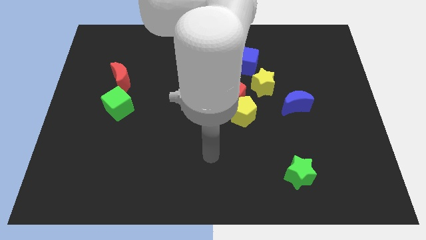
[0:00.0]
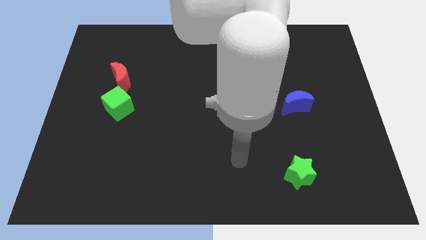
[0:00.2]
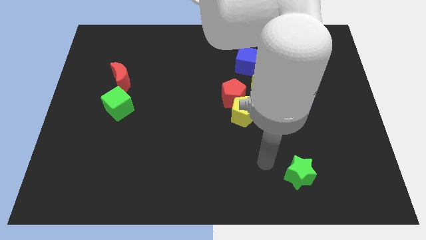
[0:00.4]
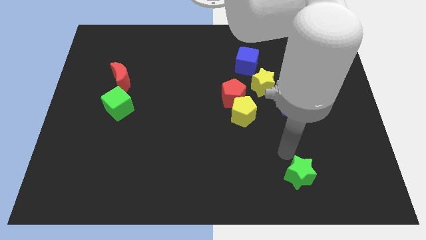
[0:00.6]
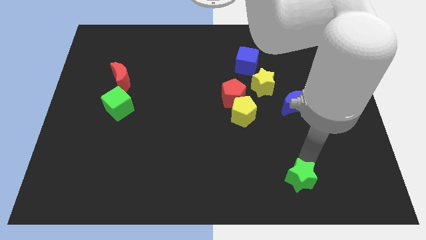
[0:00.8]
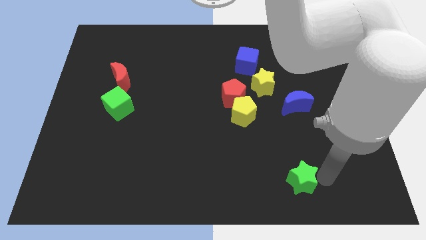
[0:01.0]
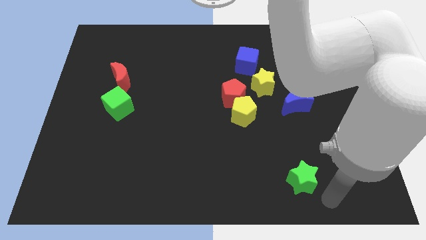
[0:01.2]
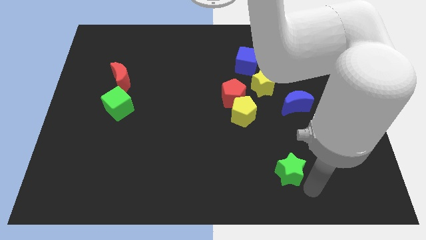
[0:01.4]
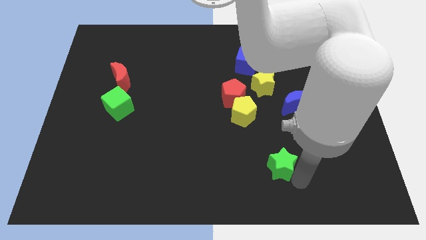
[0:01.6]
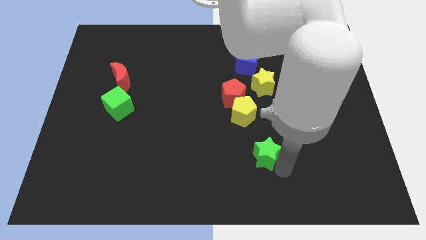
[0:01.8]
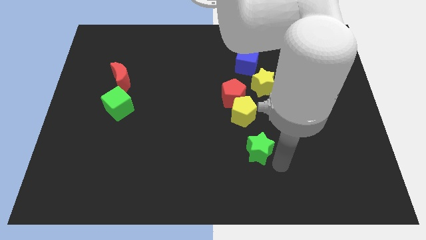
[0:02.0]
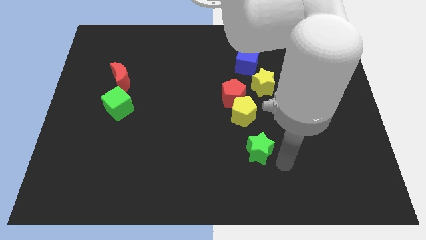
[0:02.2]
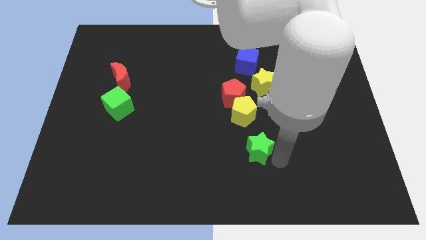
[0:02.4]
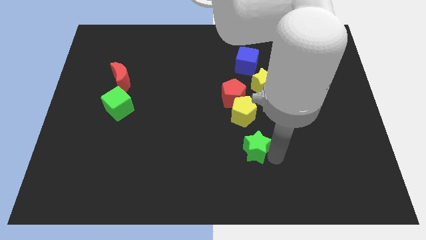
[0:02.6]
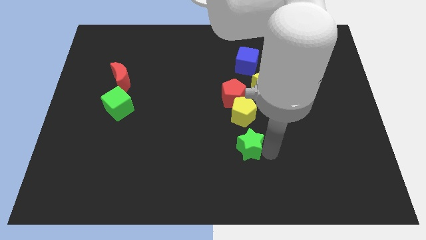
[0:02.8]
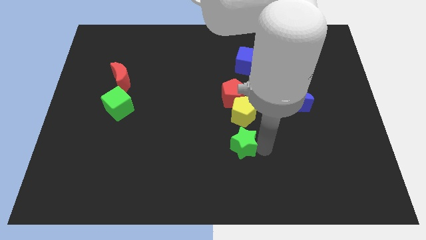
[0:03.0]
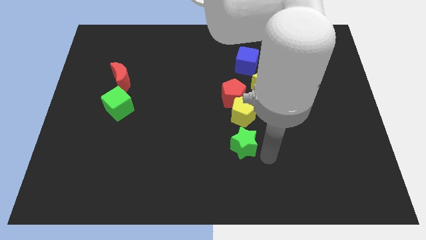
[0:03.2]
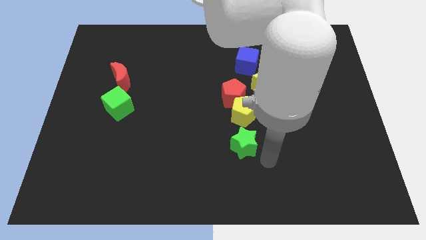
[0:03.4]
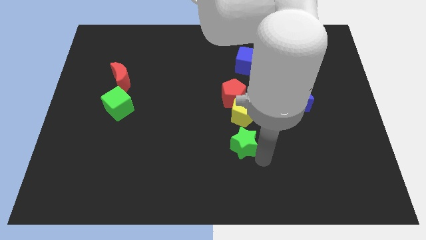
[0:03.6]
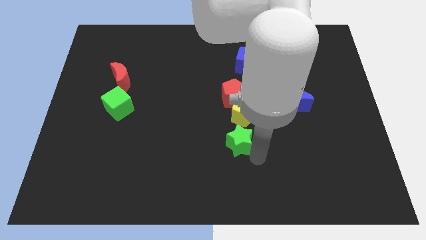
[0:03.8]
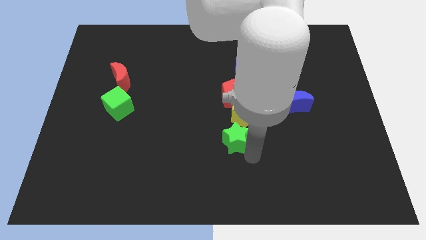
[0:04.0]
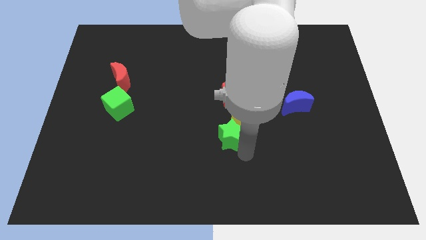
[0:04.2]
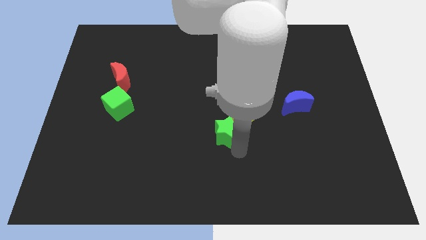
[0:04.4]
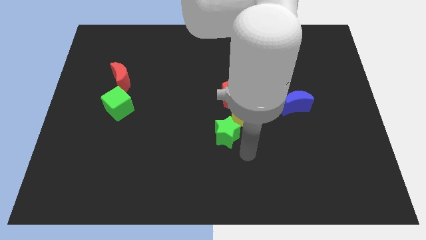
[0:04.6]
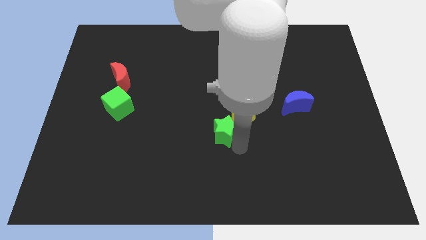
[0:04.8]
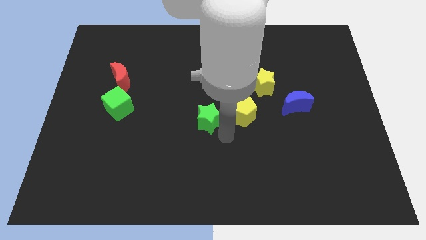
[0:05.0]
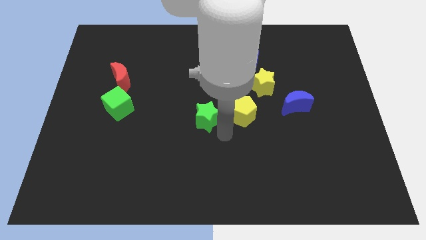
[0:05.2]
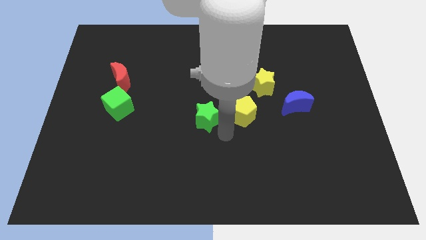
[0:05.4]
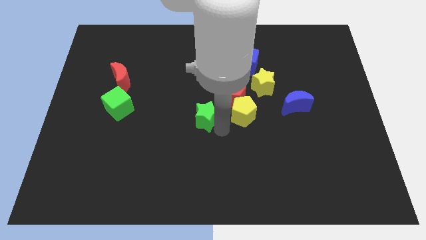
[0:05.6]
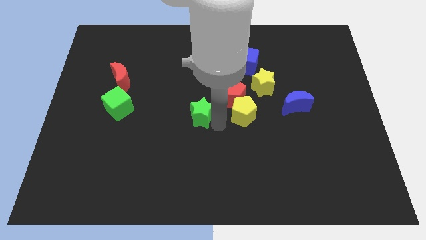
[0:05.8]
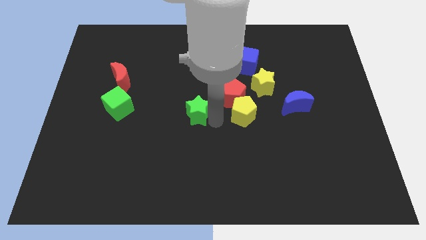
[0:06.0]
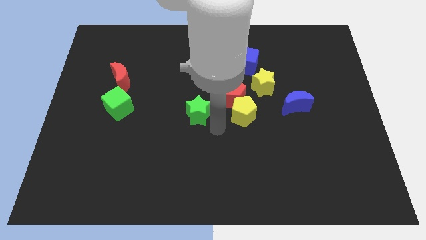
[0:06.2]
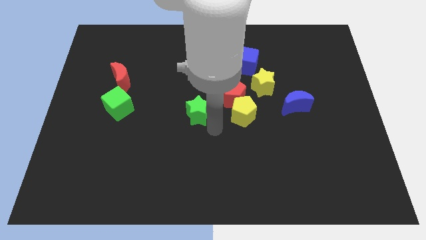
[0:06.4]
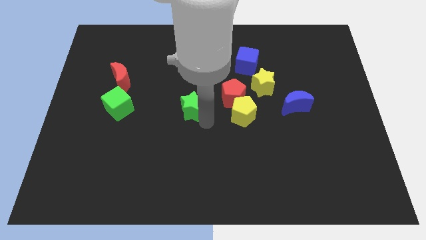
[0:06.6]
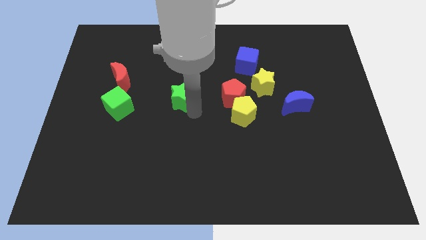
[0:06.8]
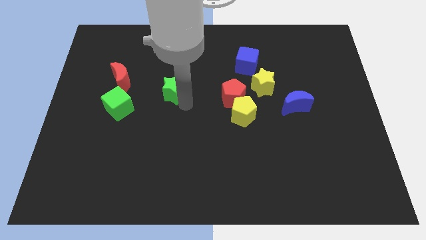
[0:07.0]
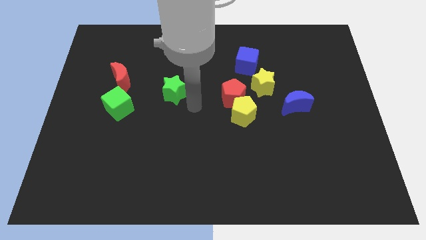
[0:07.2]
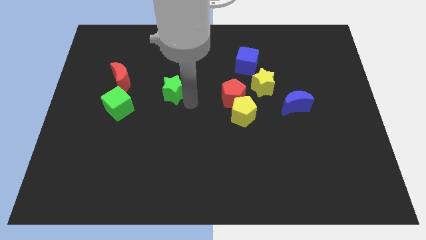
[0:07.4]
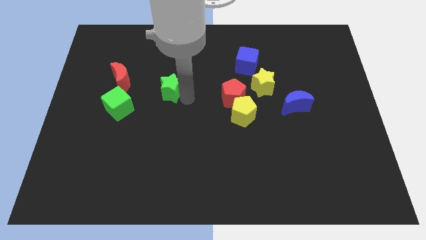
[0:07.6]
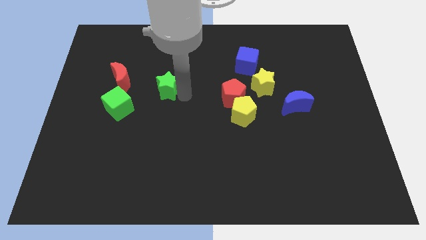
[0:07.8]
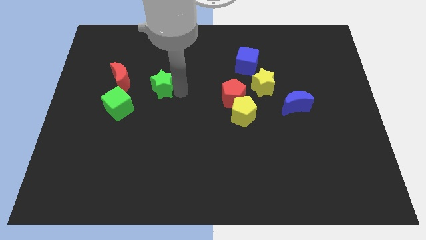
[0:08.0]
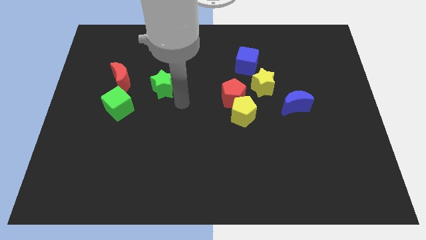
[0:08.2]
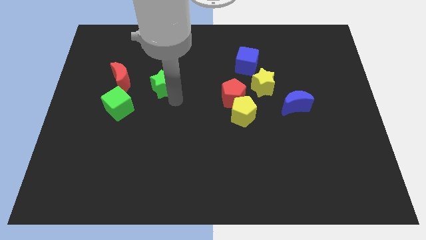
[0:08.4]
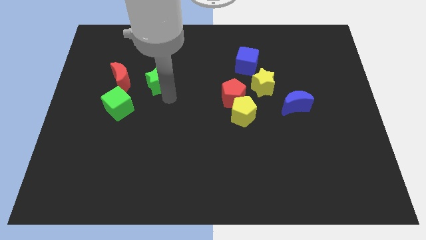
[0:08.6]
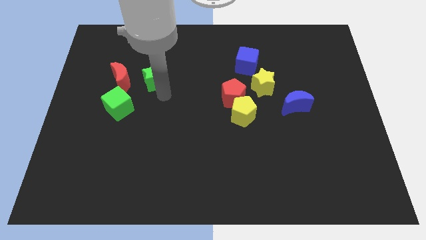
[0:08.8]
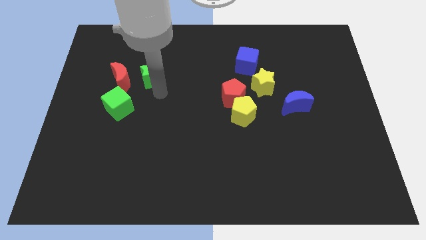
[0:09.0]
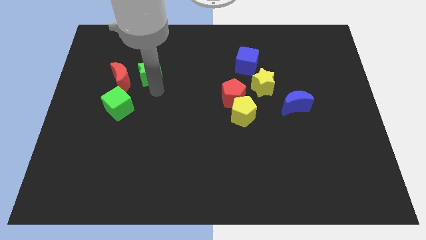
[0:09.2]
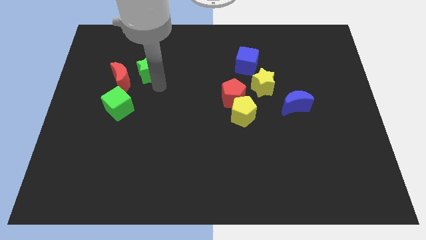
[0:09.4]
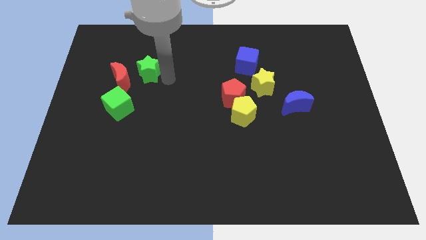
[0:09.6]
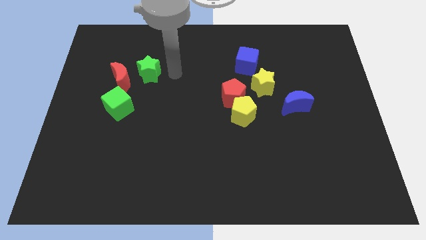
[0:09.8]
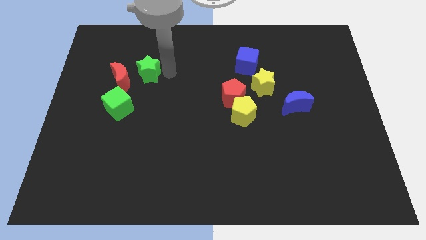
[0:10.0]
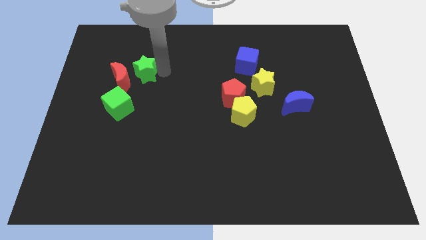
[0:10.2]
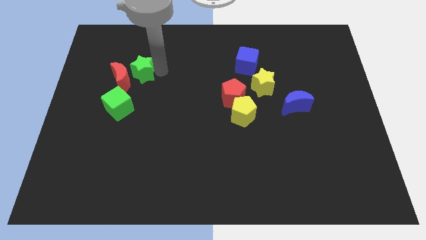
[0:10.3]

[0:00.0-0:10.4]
push the green star above the green cube

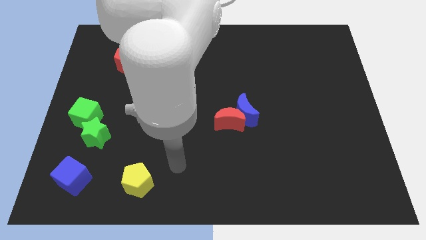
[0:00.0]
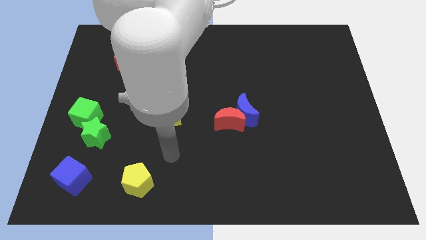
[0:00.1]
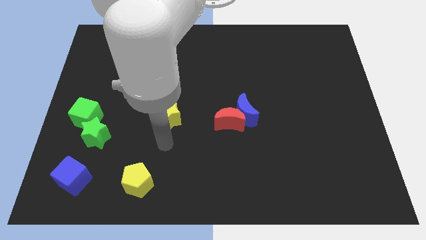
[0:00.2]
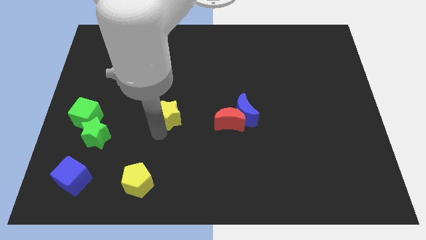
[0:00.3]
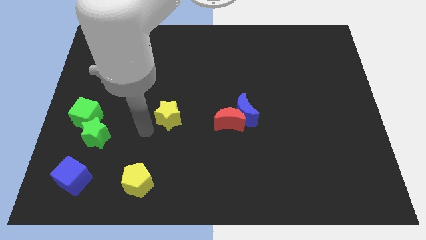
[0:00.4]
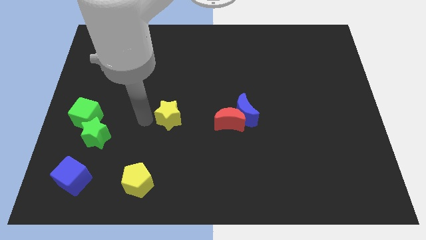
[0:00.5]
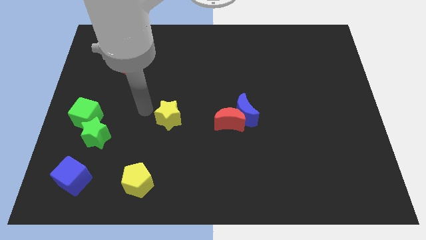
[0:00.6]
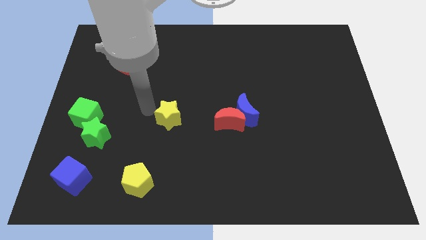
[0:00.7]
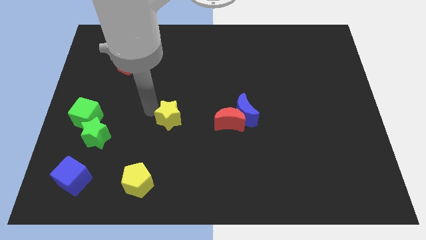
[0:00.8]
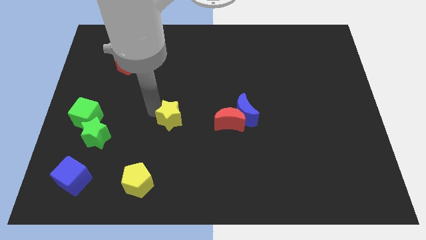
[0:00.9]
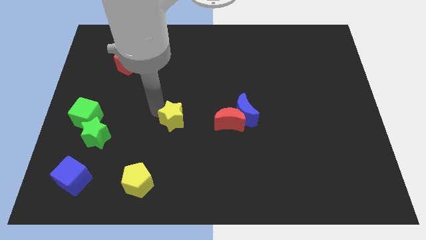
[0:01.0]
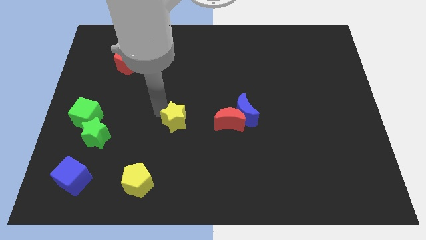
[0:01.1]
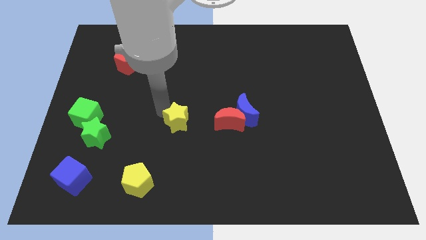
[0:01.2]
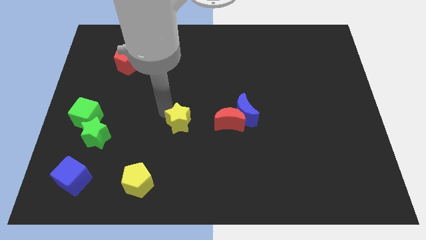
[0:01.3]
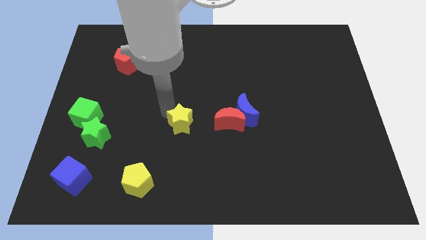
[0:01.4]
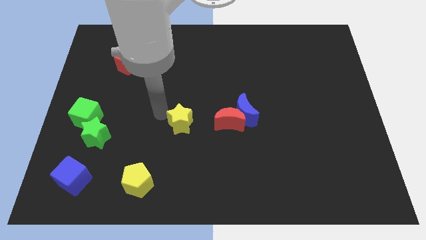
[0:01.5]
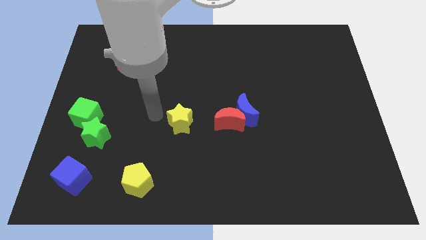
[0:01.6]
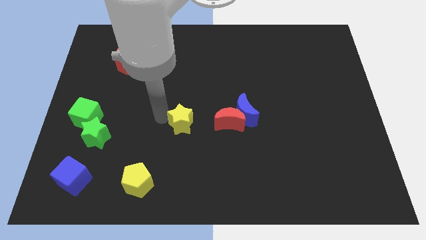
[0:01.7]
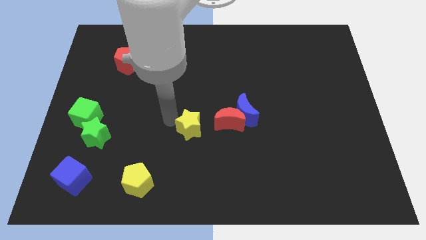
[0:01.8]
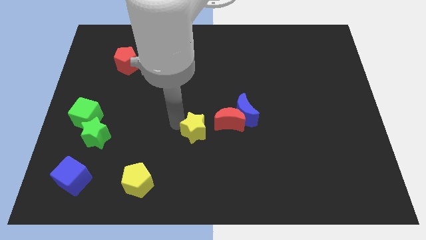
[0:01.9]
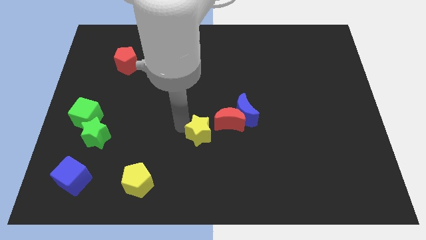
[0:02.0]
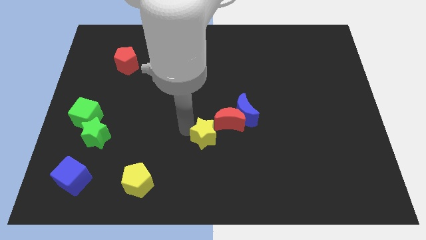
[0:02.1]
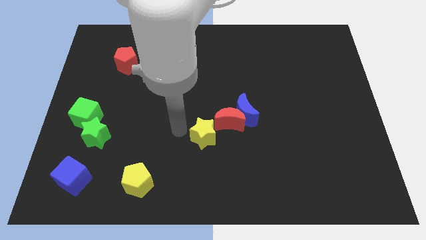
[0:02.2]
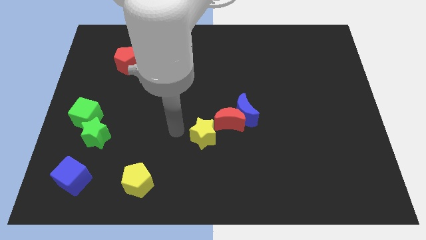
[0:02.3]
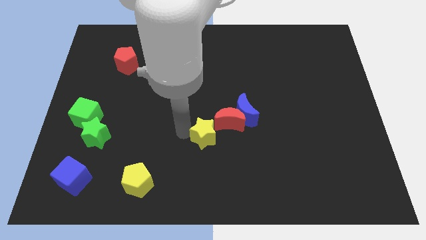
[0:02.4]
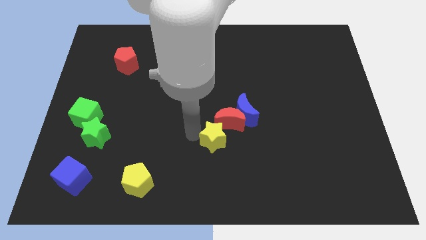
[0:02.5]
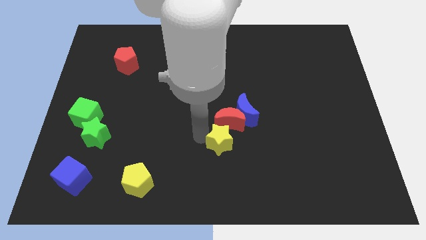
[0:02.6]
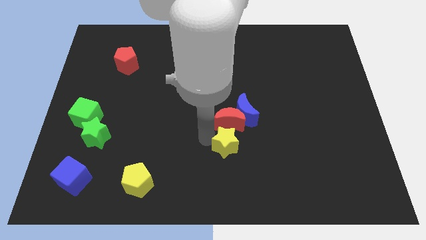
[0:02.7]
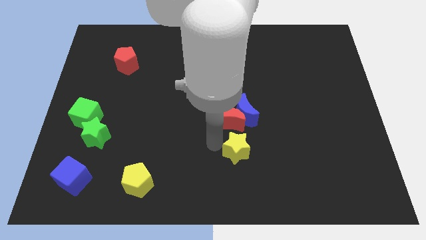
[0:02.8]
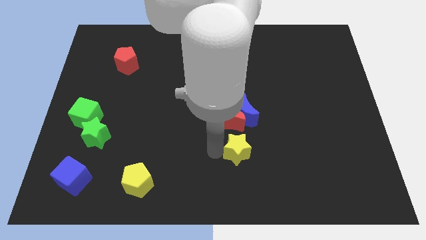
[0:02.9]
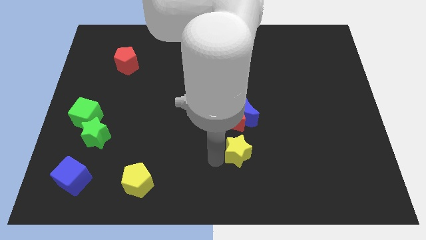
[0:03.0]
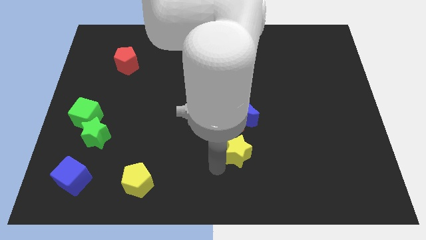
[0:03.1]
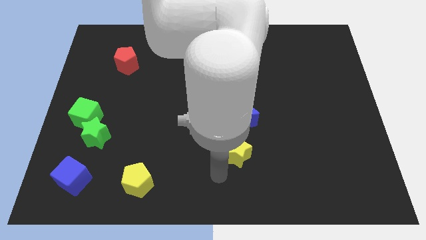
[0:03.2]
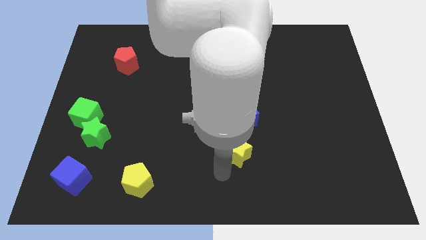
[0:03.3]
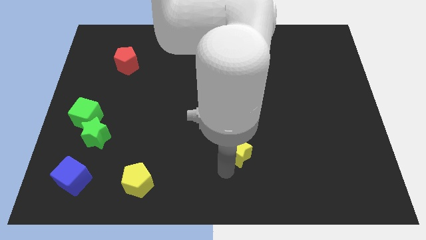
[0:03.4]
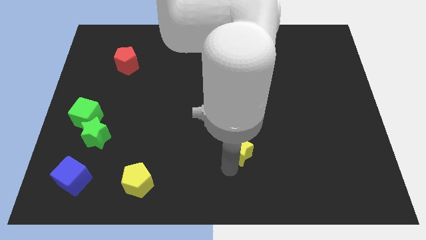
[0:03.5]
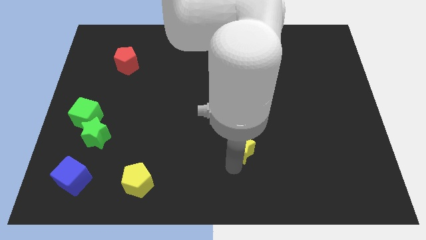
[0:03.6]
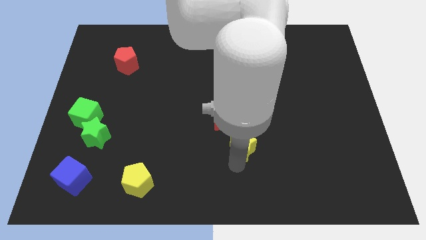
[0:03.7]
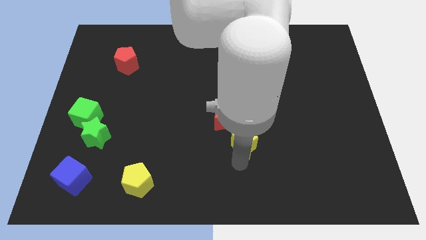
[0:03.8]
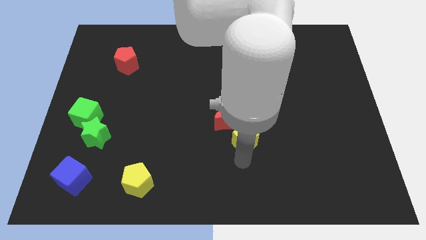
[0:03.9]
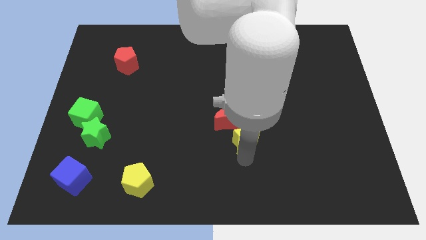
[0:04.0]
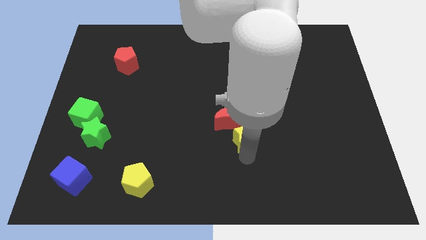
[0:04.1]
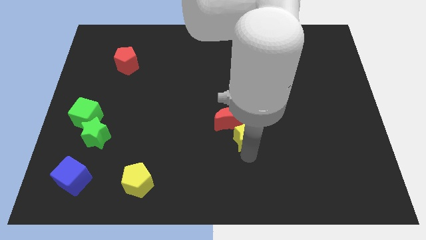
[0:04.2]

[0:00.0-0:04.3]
push the yellow star to the right side of the red moon
